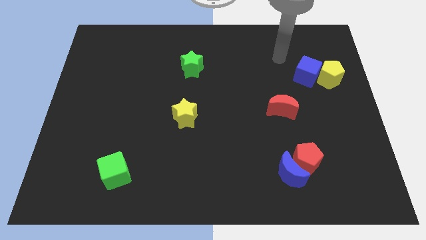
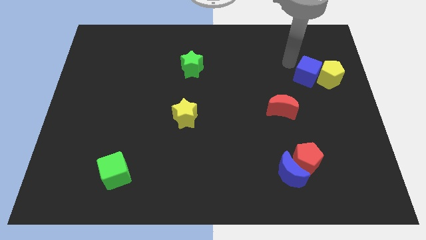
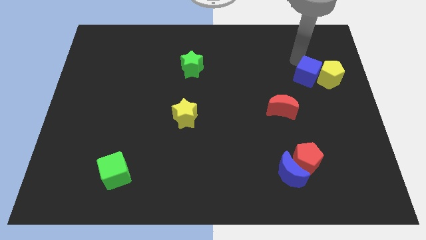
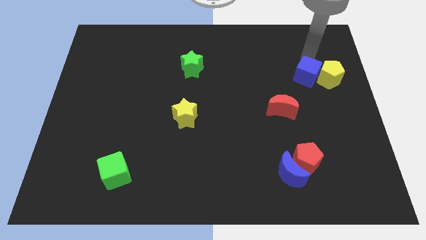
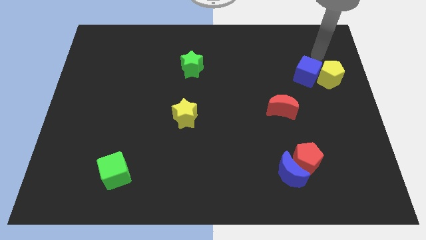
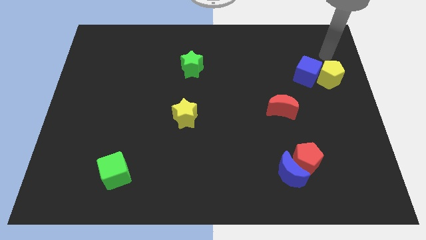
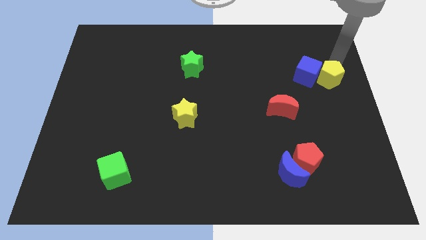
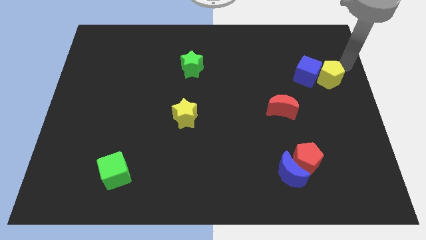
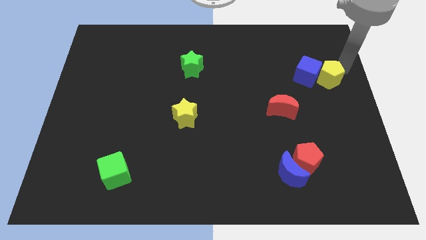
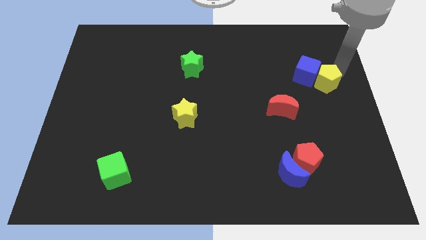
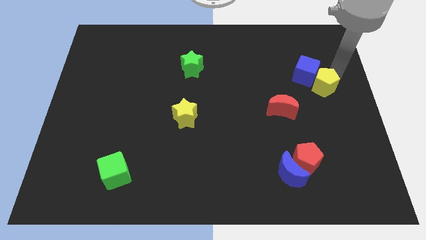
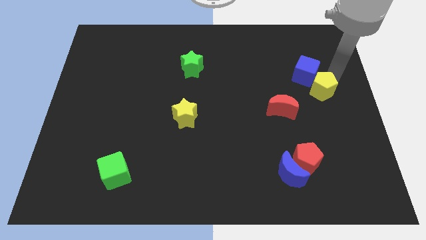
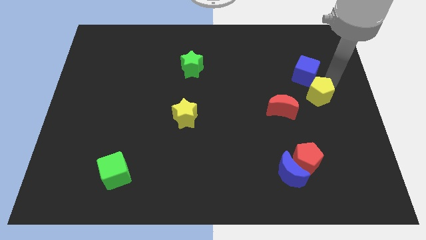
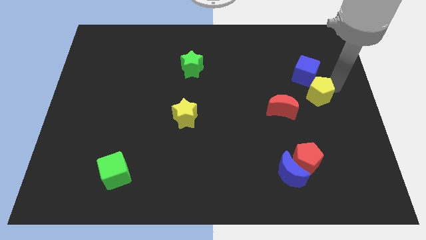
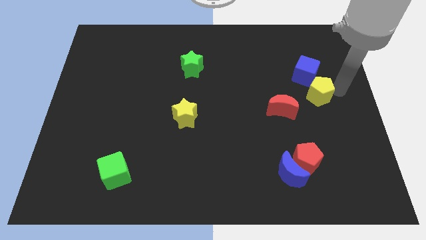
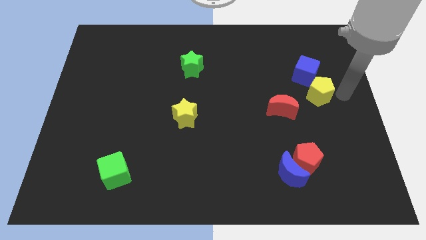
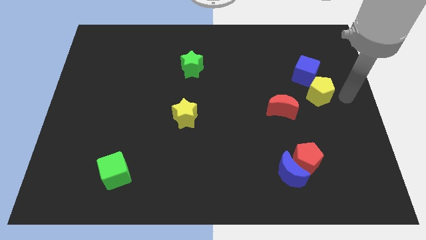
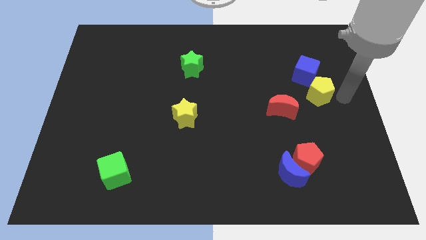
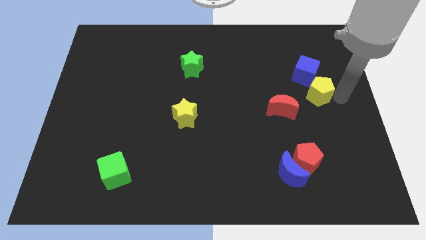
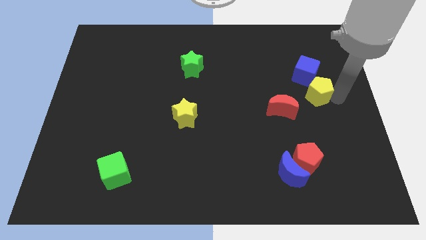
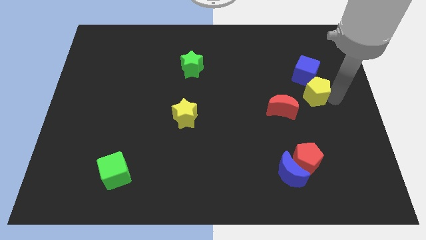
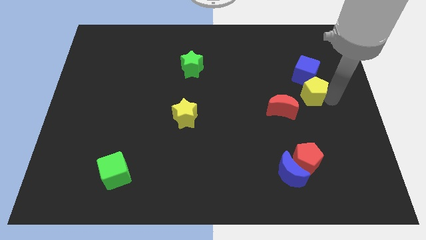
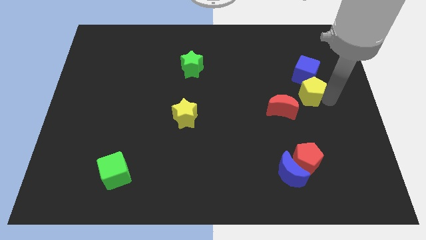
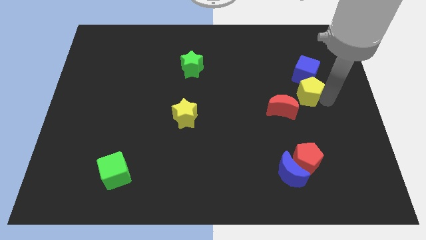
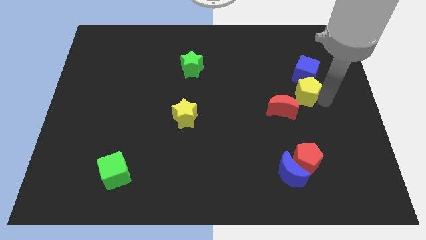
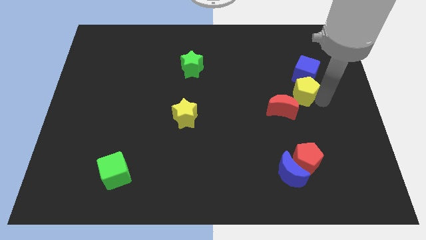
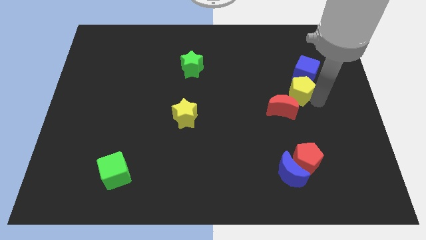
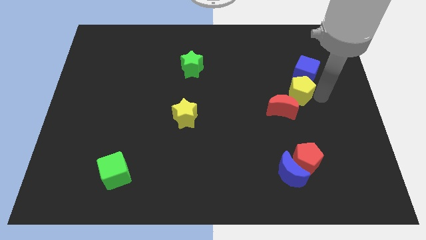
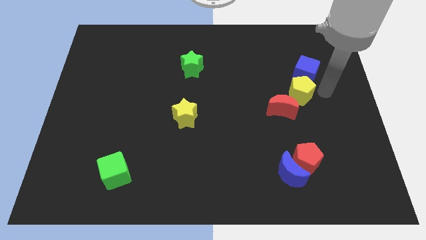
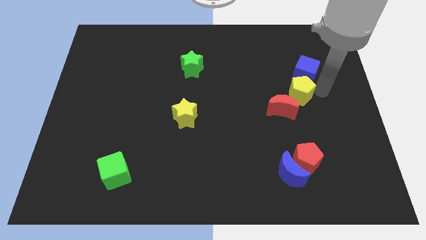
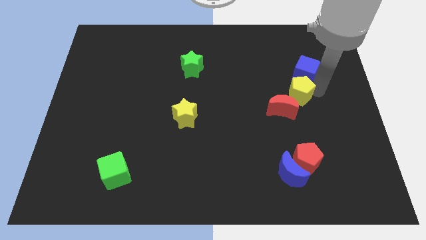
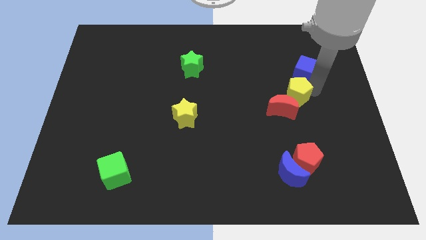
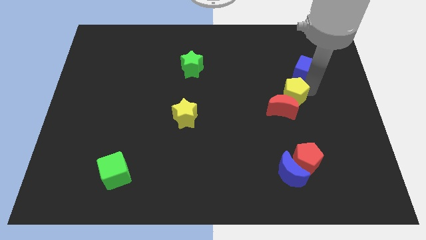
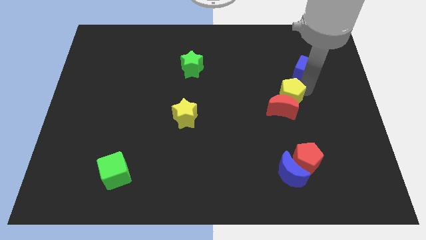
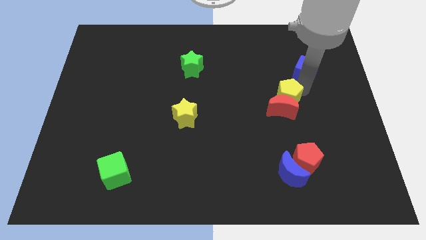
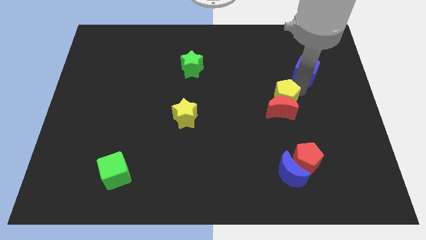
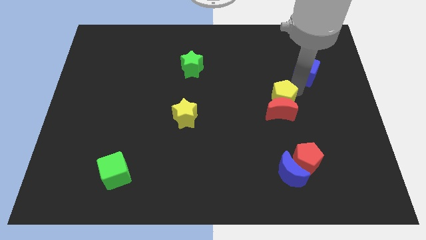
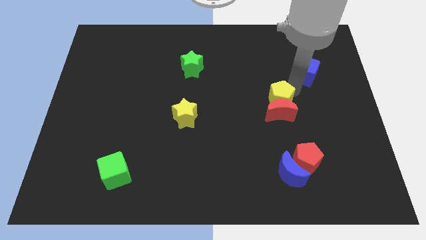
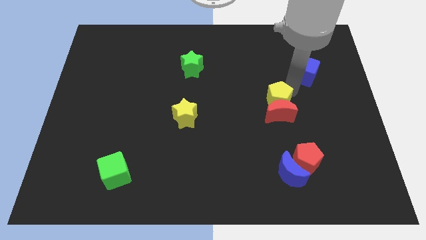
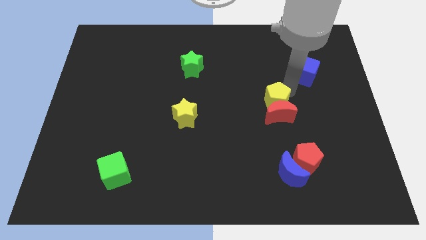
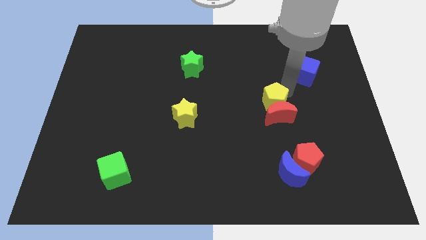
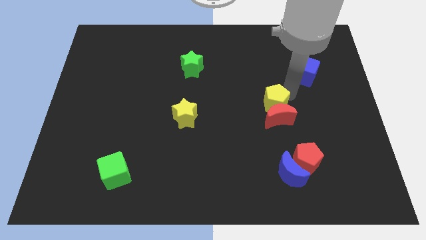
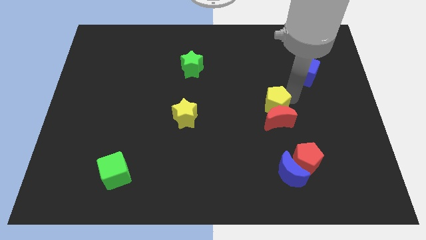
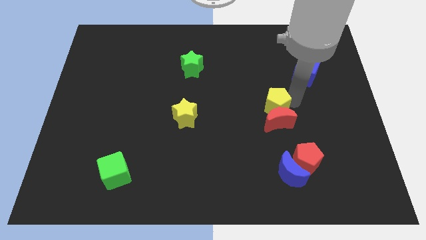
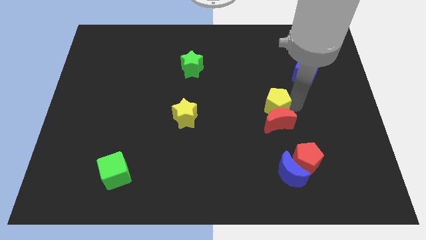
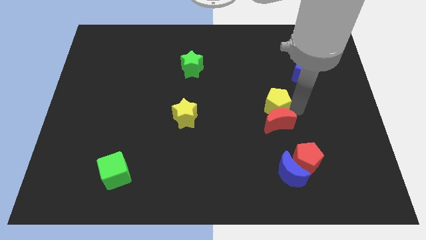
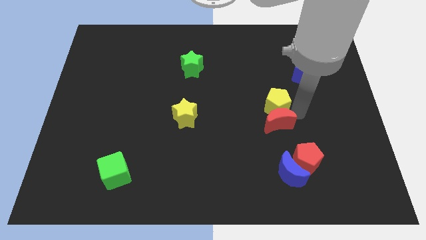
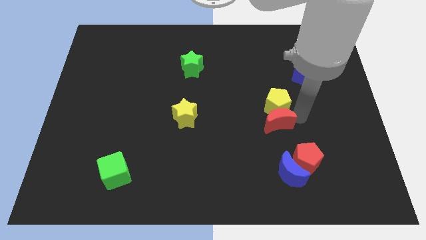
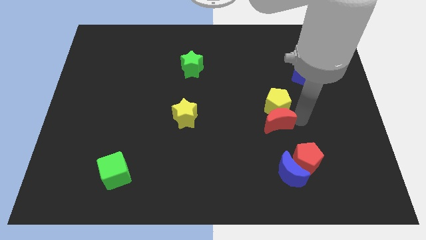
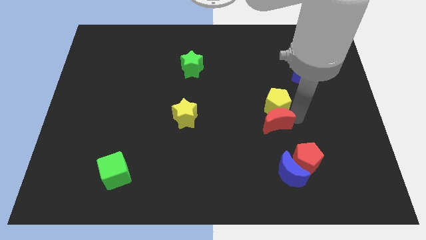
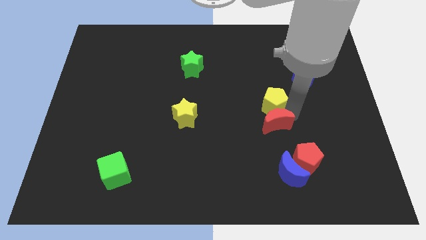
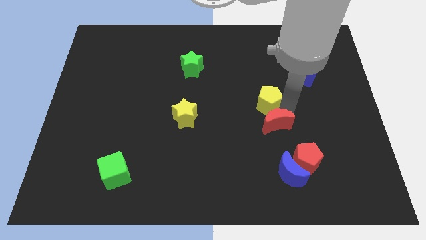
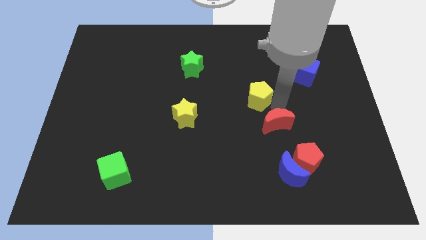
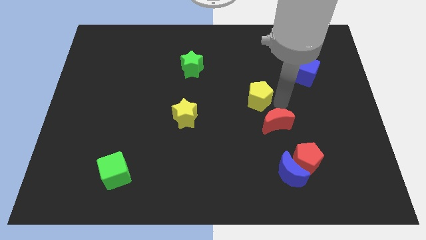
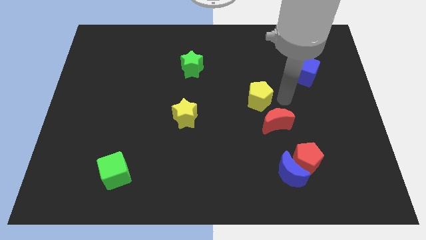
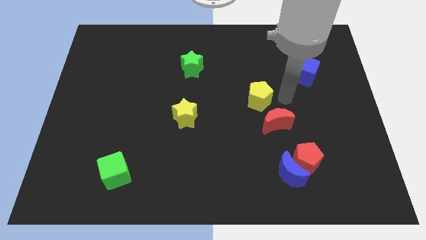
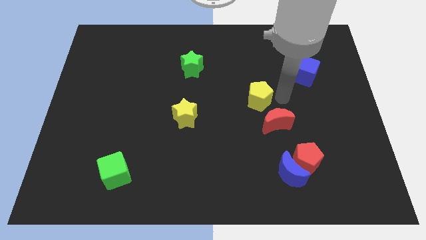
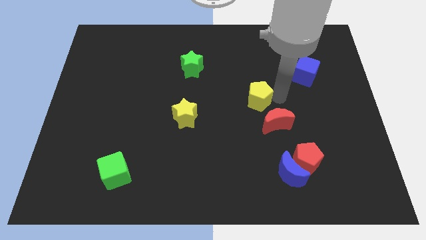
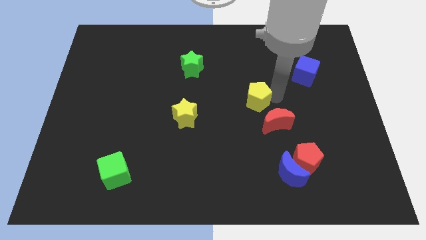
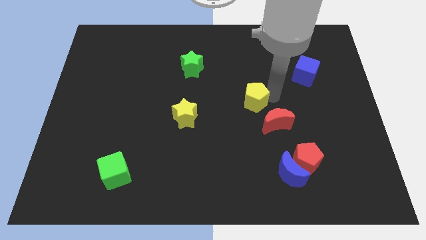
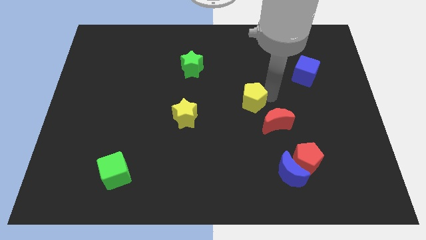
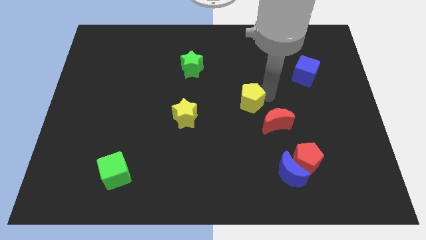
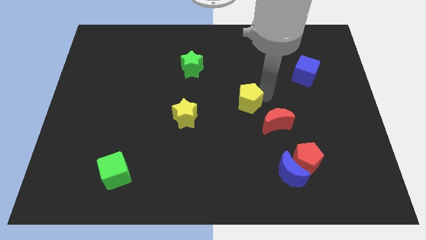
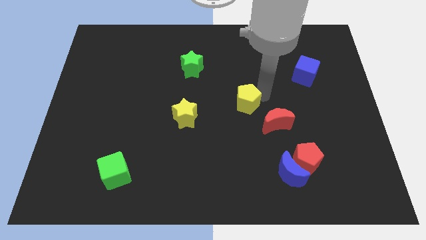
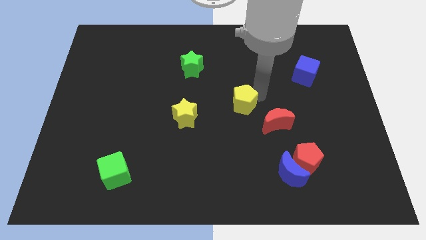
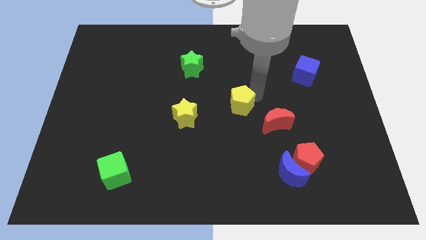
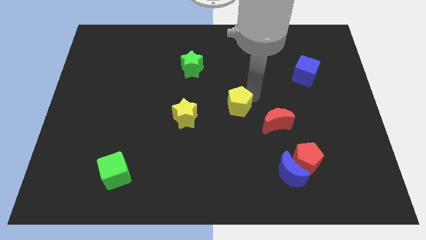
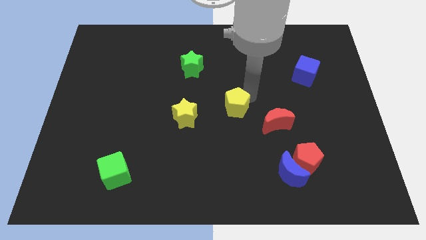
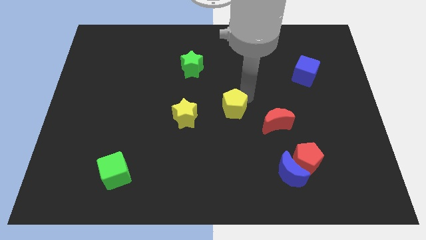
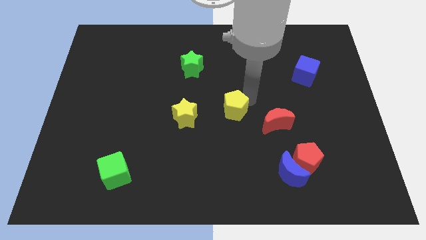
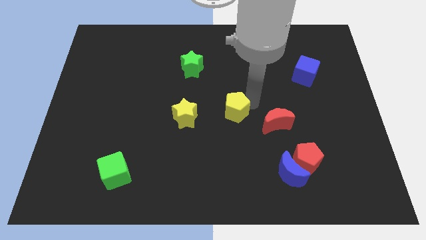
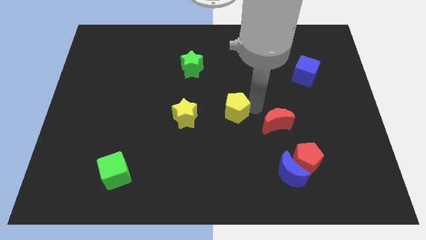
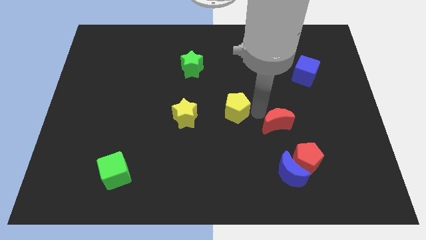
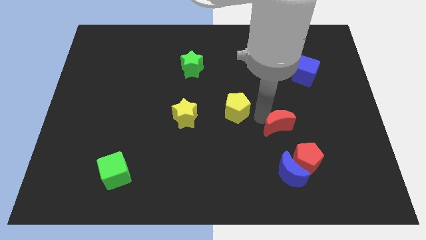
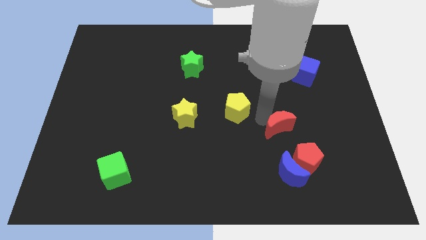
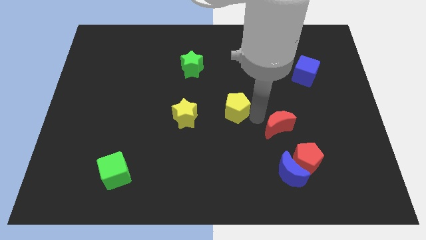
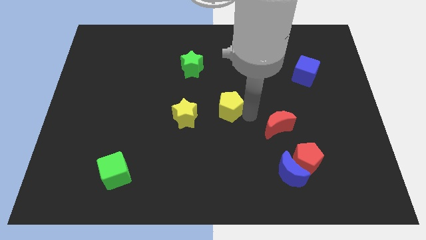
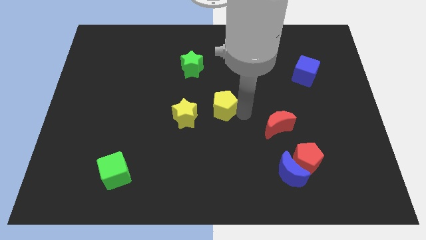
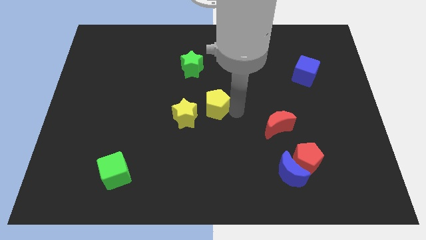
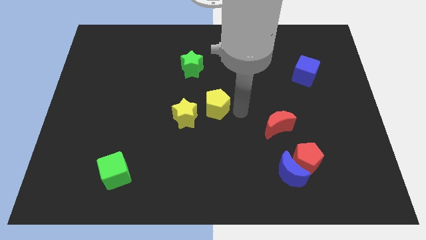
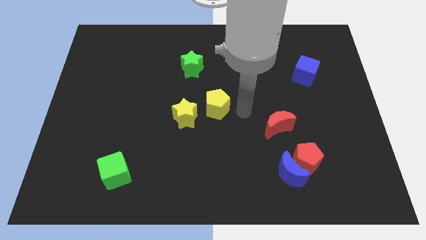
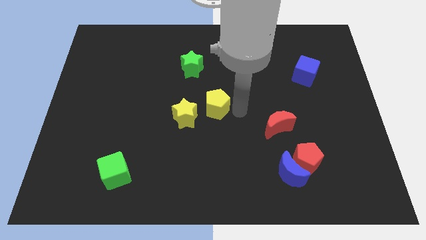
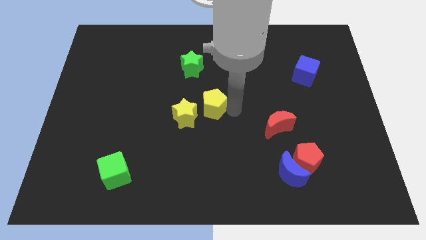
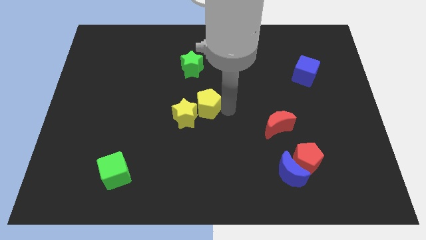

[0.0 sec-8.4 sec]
put the yellow pentagon close to the yellow star
